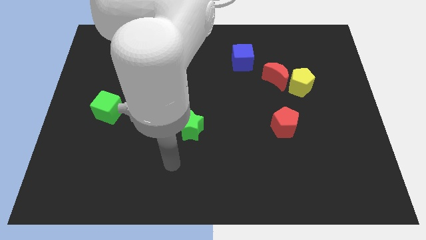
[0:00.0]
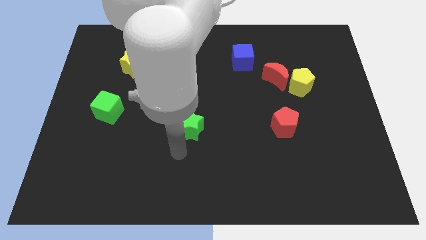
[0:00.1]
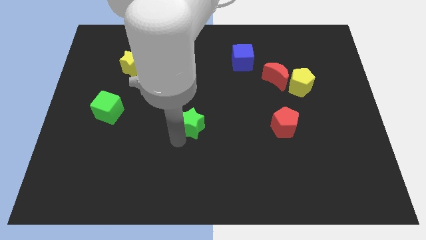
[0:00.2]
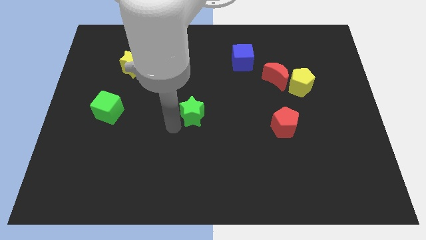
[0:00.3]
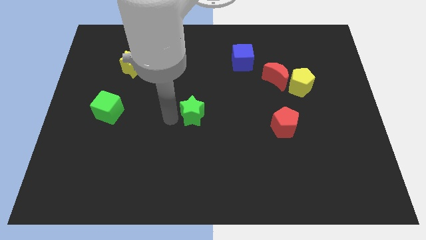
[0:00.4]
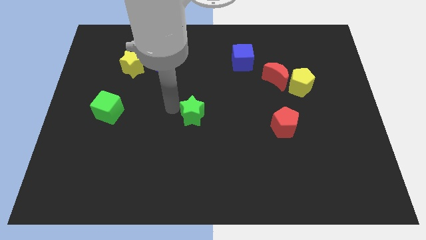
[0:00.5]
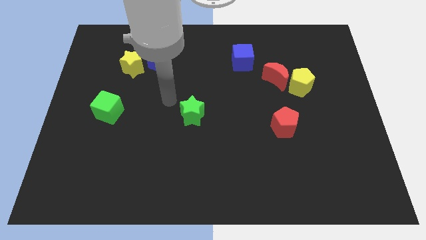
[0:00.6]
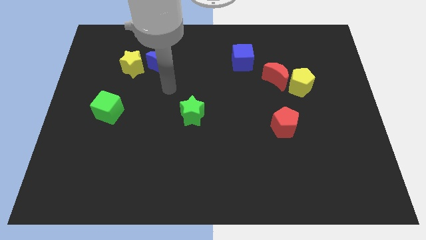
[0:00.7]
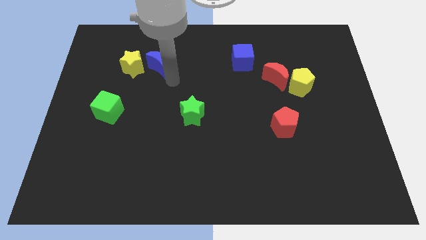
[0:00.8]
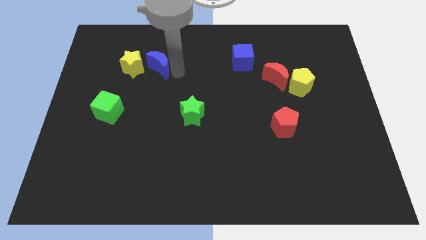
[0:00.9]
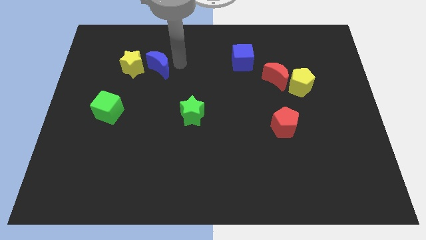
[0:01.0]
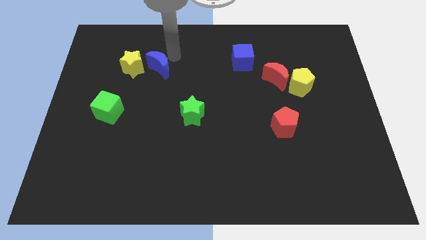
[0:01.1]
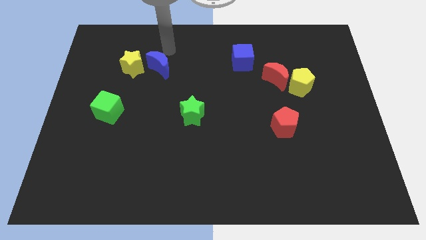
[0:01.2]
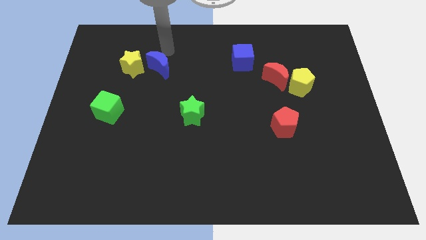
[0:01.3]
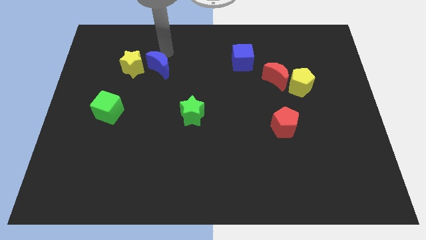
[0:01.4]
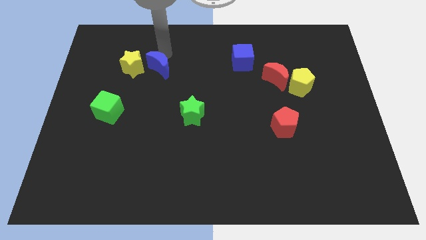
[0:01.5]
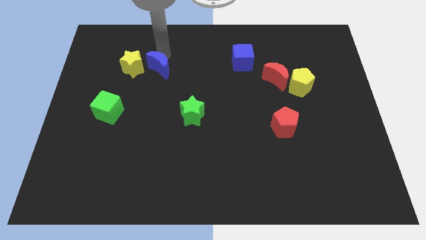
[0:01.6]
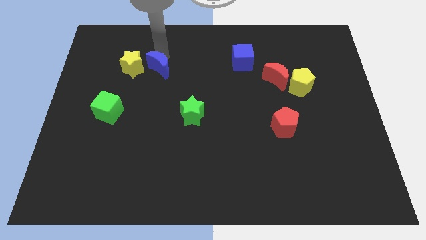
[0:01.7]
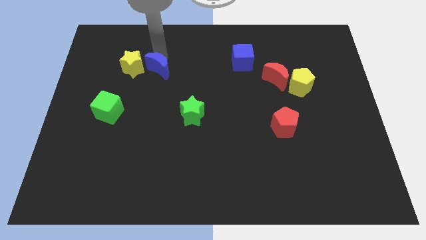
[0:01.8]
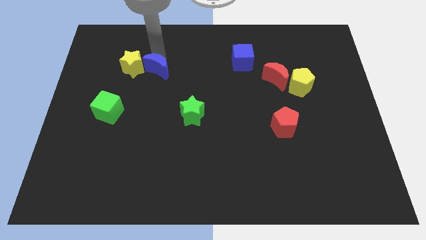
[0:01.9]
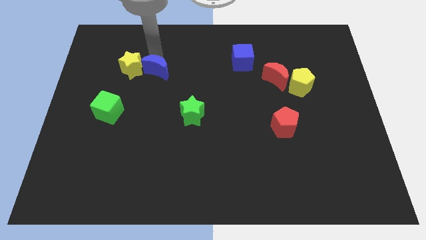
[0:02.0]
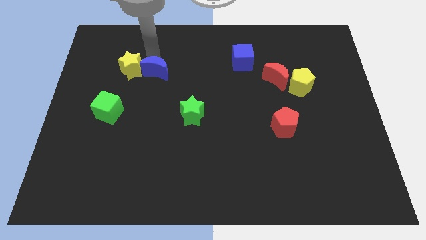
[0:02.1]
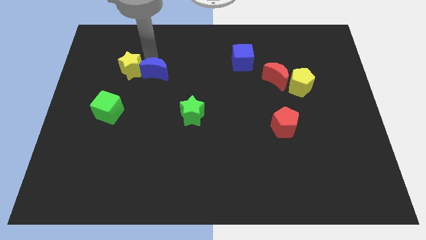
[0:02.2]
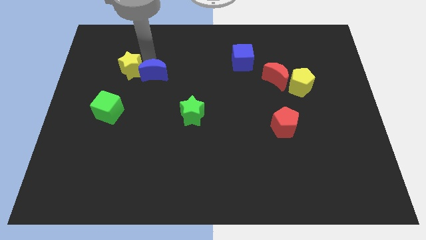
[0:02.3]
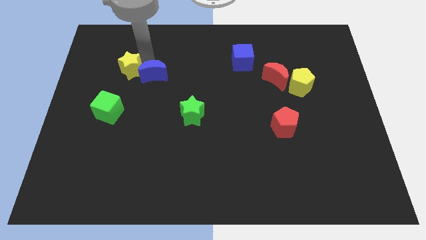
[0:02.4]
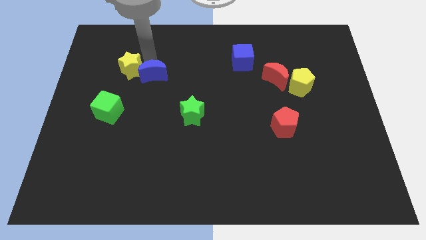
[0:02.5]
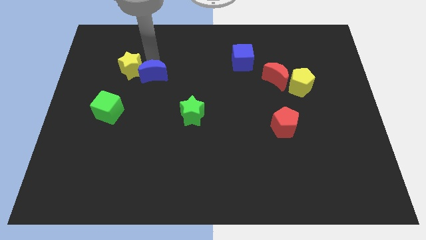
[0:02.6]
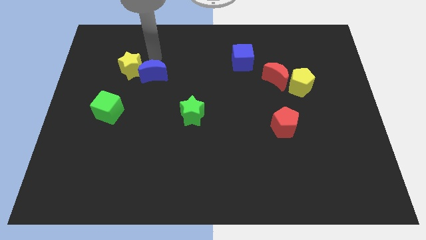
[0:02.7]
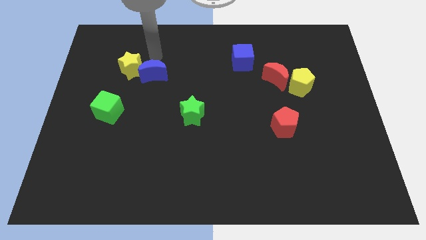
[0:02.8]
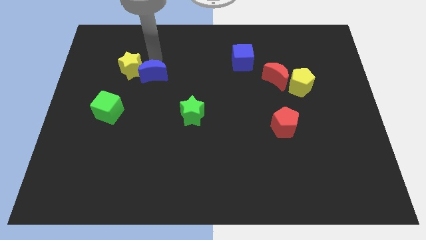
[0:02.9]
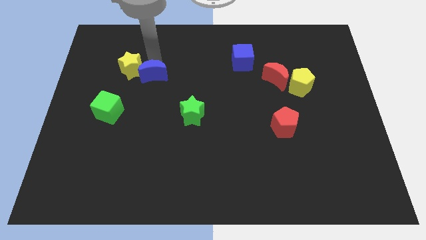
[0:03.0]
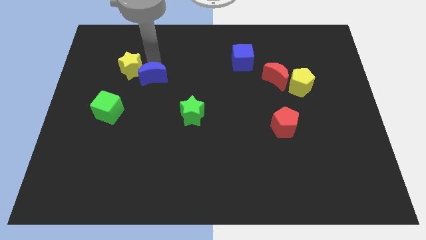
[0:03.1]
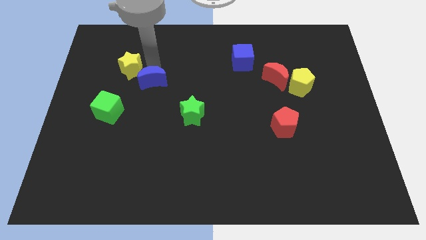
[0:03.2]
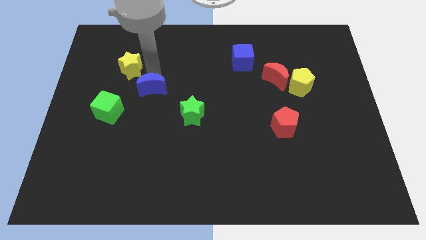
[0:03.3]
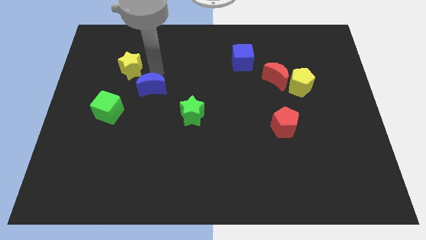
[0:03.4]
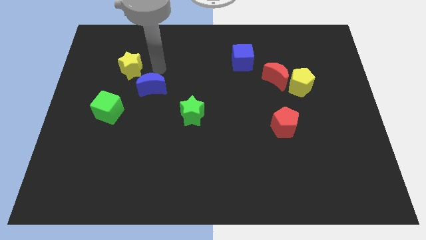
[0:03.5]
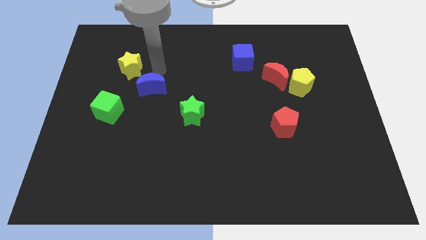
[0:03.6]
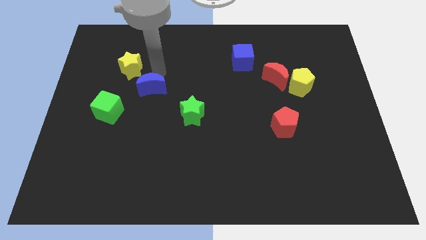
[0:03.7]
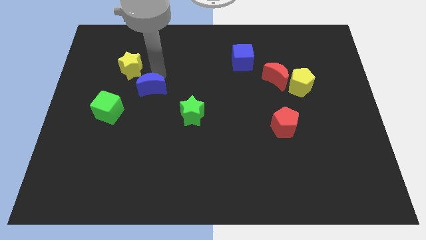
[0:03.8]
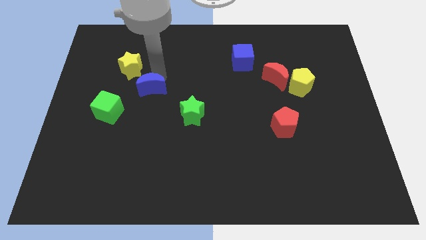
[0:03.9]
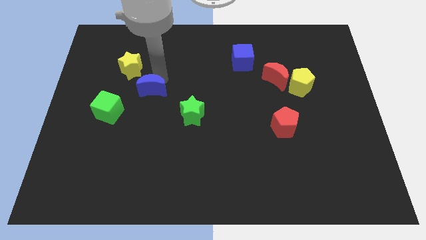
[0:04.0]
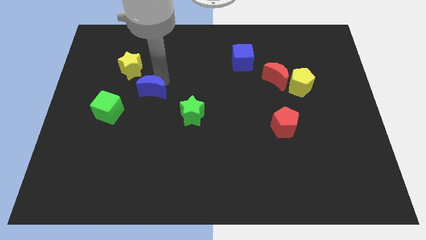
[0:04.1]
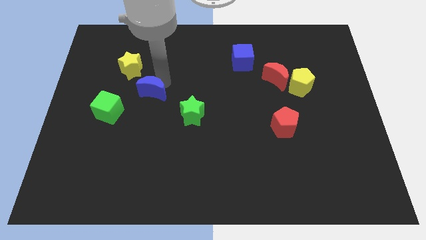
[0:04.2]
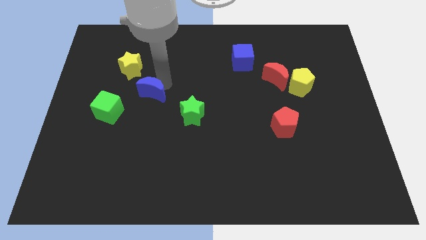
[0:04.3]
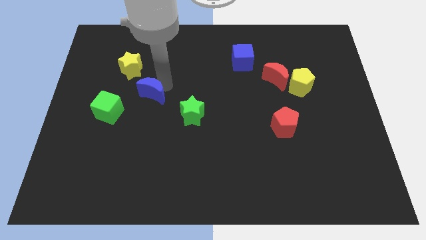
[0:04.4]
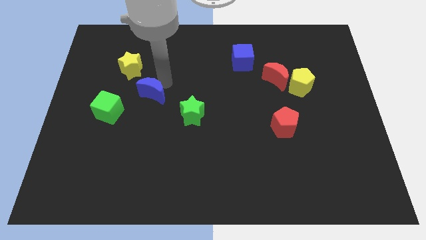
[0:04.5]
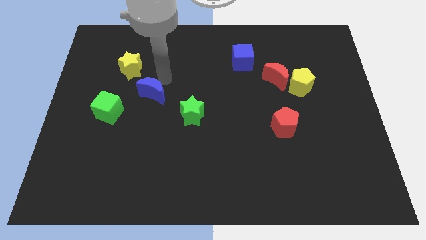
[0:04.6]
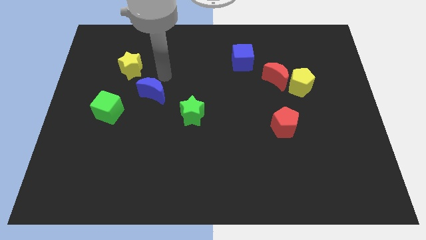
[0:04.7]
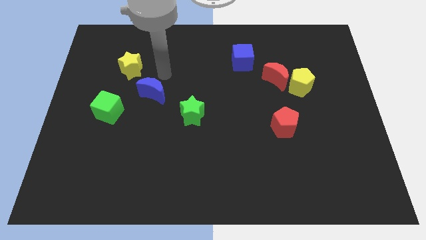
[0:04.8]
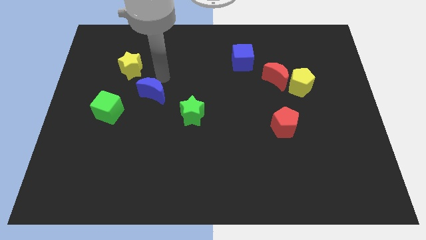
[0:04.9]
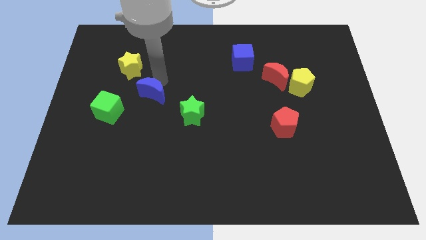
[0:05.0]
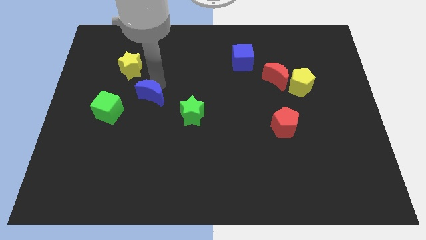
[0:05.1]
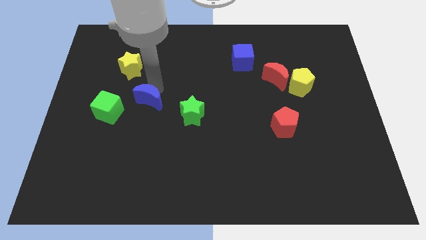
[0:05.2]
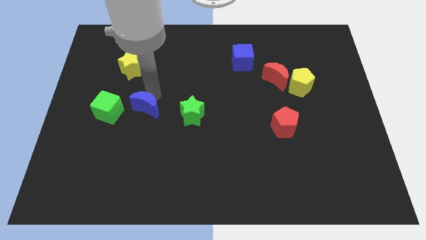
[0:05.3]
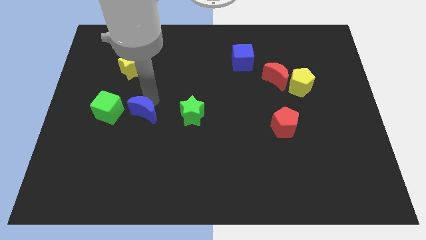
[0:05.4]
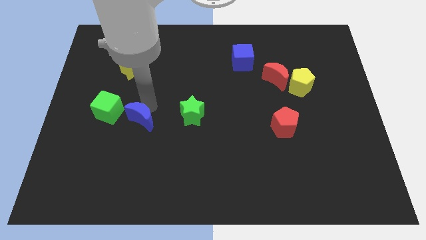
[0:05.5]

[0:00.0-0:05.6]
slide the blue moon to the bottom right of the green cube

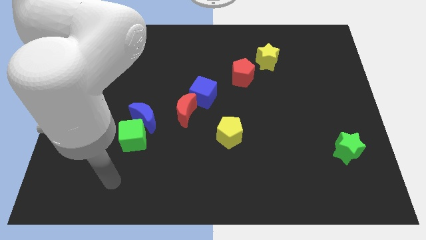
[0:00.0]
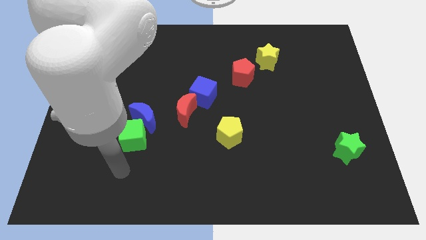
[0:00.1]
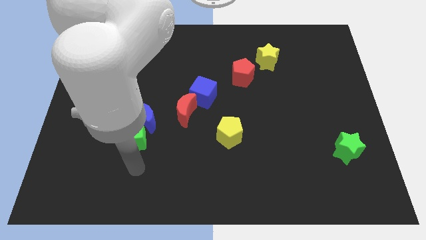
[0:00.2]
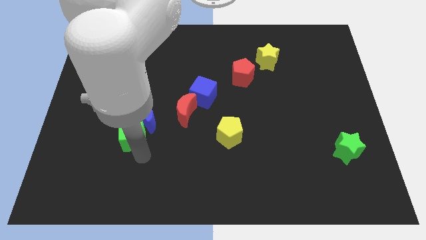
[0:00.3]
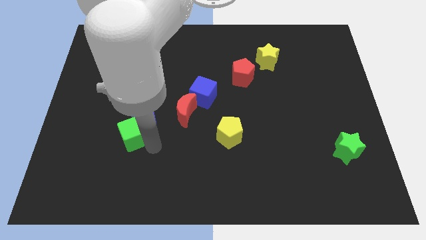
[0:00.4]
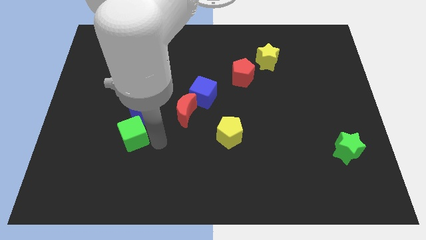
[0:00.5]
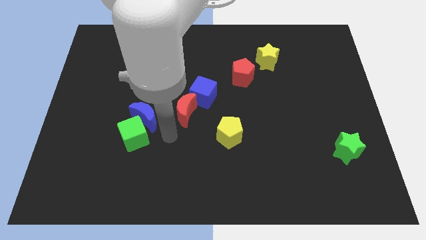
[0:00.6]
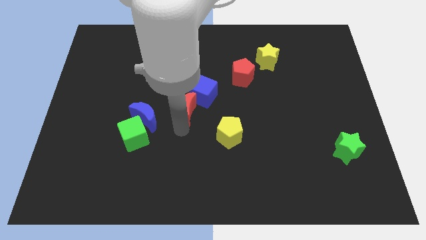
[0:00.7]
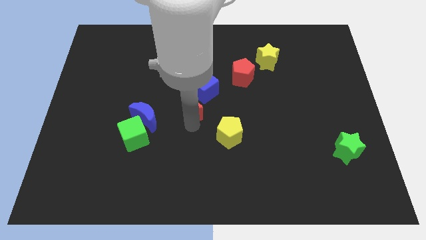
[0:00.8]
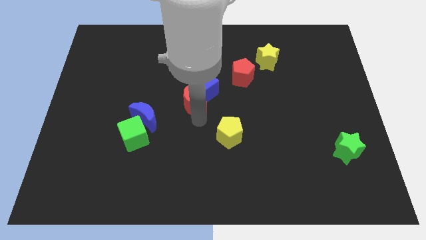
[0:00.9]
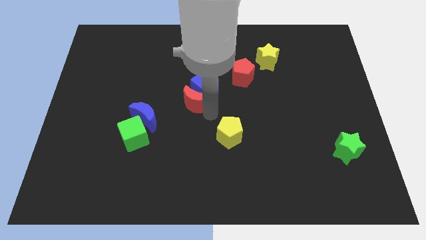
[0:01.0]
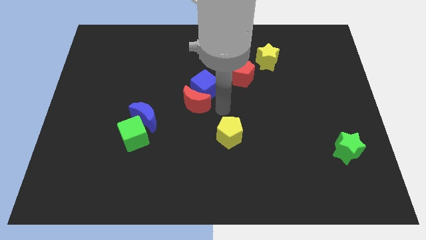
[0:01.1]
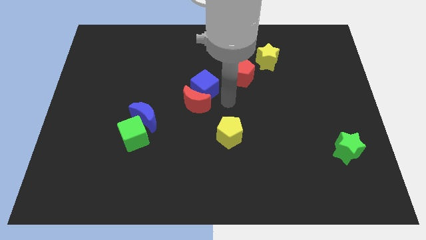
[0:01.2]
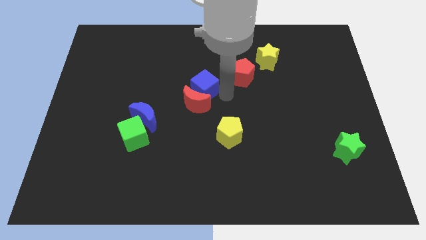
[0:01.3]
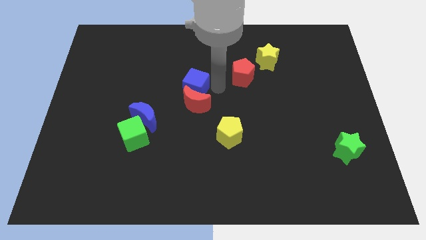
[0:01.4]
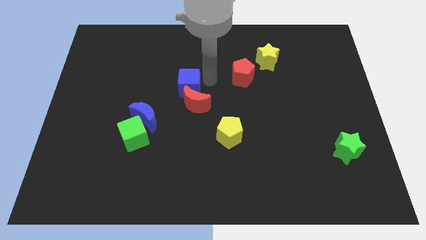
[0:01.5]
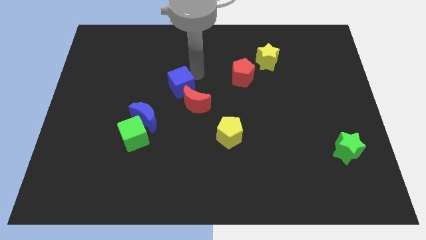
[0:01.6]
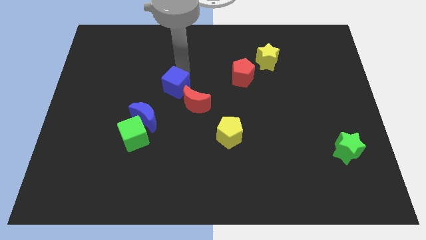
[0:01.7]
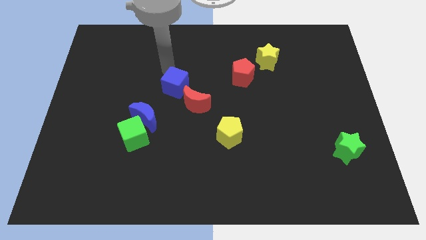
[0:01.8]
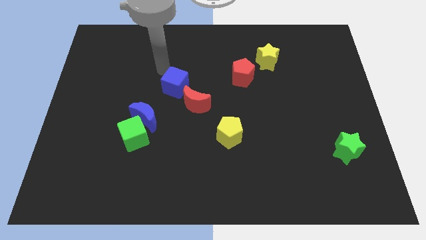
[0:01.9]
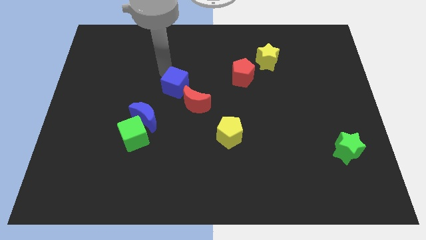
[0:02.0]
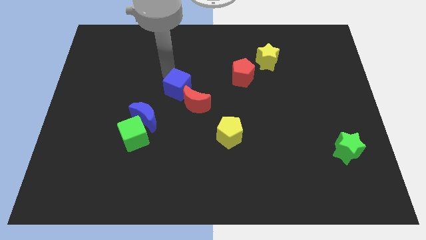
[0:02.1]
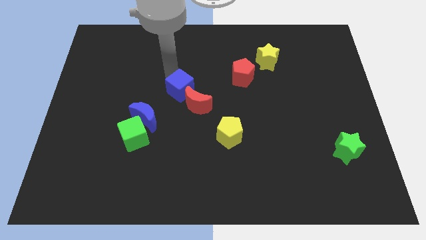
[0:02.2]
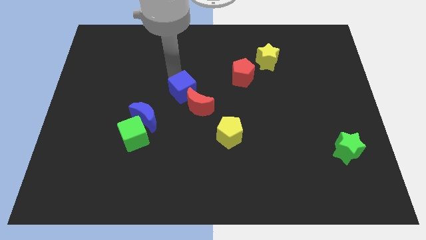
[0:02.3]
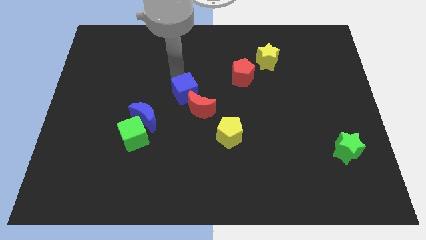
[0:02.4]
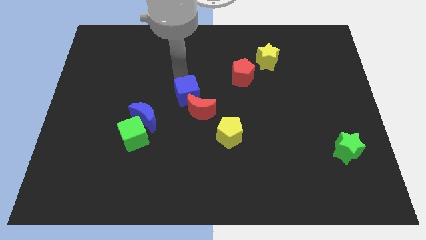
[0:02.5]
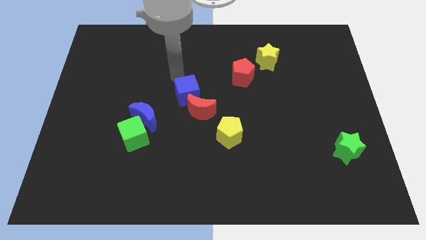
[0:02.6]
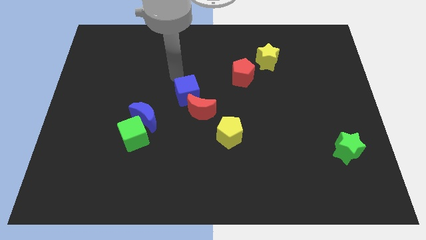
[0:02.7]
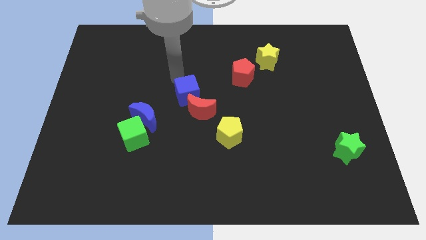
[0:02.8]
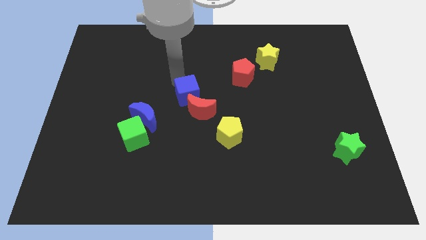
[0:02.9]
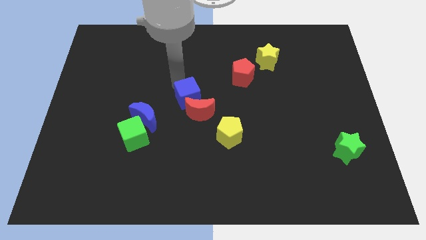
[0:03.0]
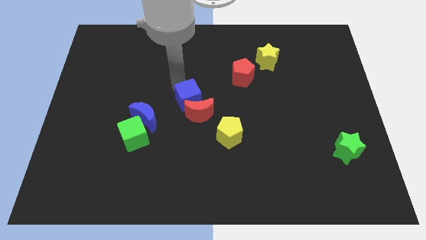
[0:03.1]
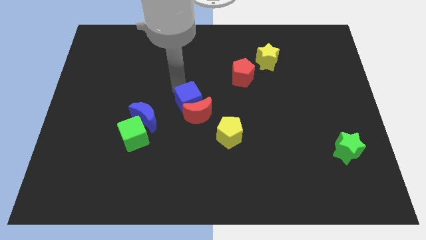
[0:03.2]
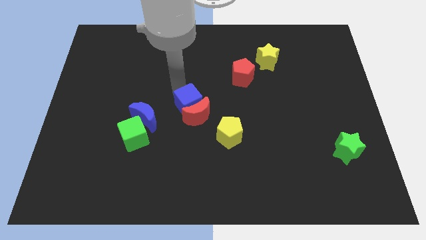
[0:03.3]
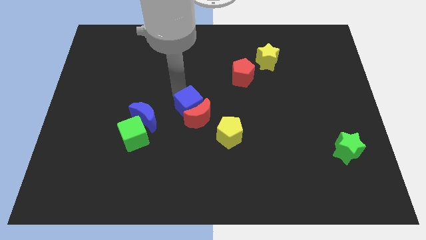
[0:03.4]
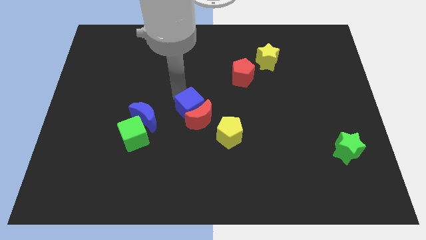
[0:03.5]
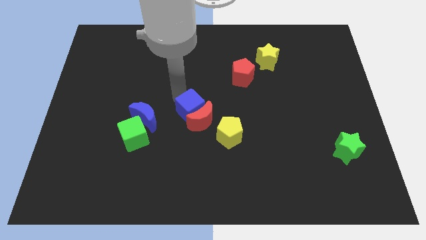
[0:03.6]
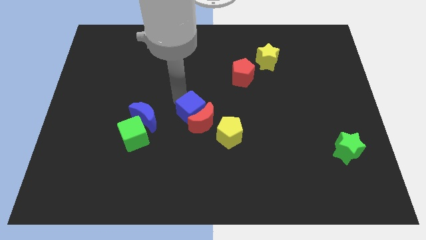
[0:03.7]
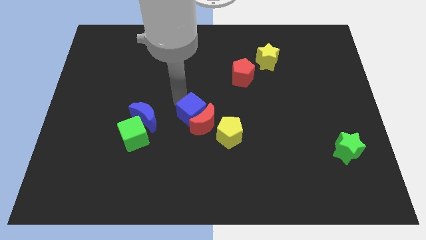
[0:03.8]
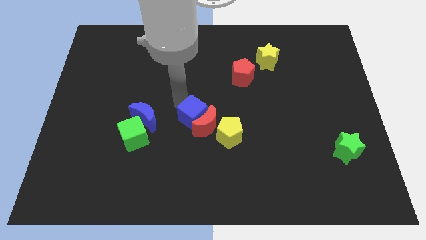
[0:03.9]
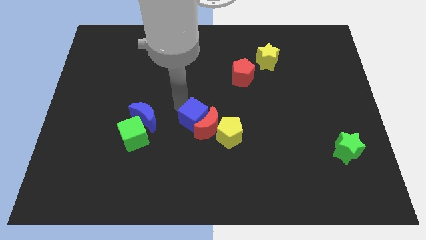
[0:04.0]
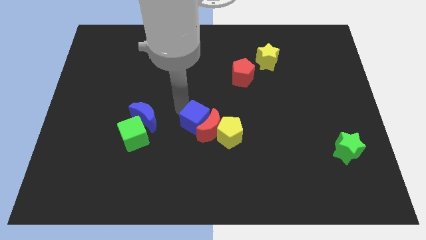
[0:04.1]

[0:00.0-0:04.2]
slide the blue cube just right of the green cube
